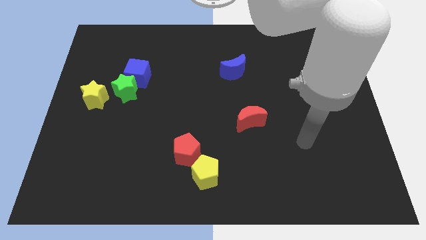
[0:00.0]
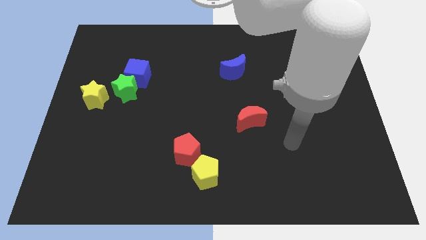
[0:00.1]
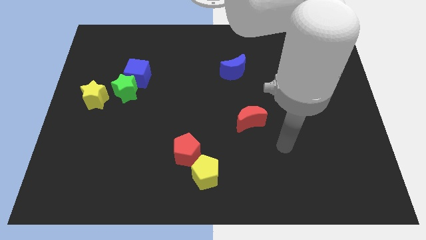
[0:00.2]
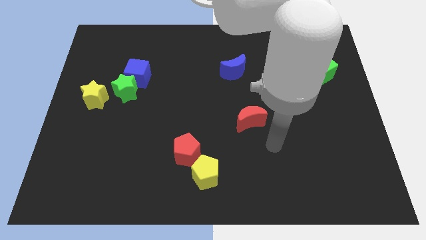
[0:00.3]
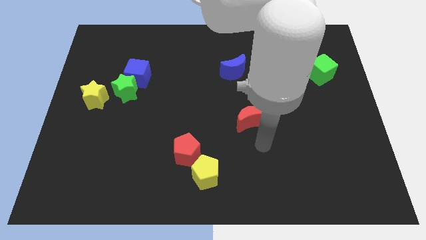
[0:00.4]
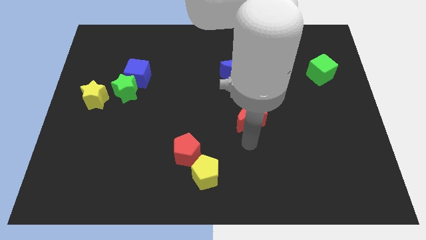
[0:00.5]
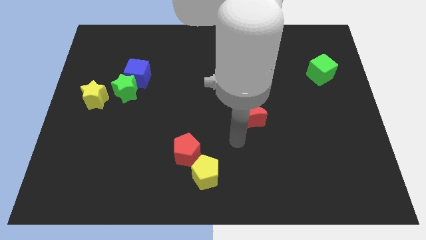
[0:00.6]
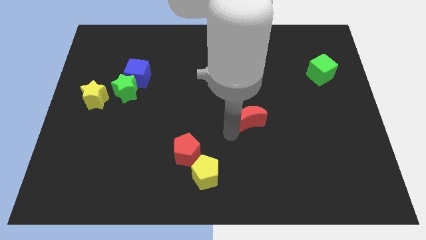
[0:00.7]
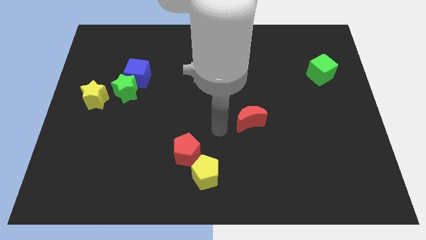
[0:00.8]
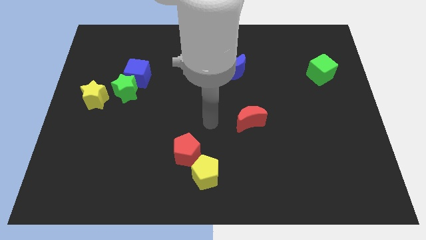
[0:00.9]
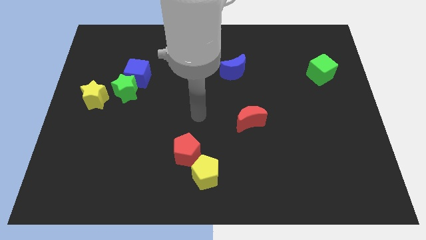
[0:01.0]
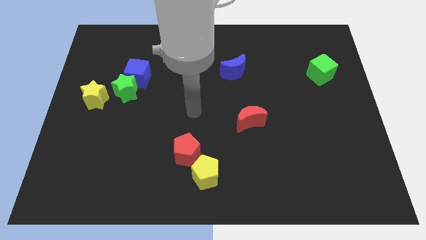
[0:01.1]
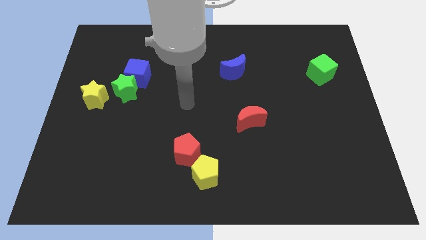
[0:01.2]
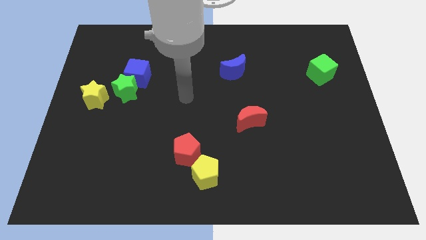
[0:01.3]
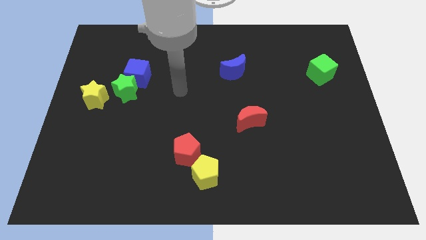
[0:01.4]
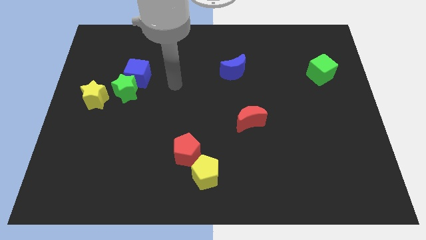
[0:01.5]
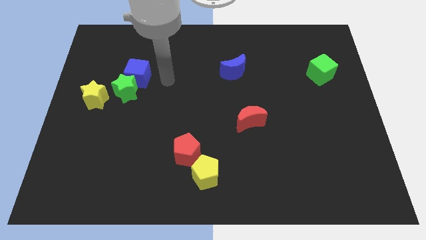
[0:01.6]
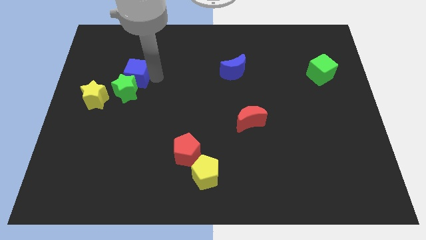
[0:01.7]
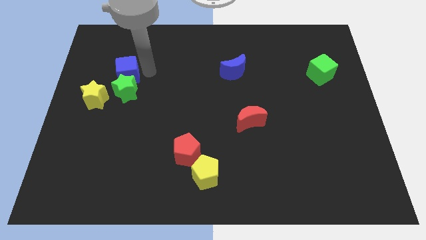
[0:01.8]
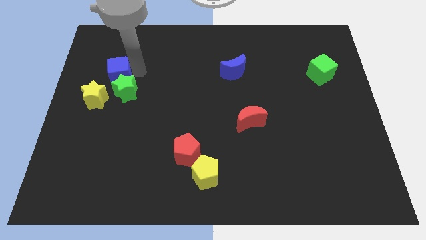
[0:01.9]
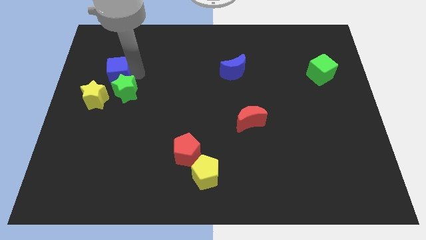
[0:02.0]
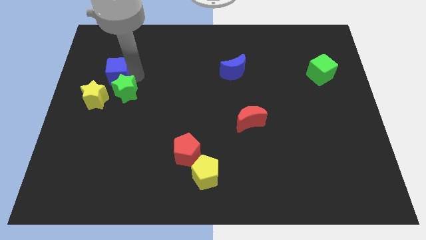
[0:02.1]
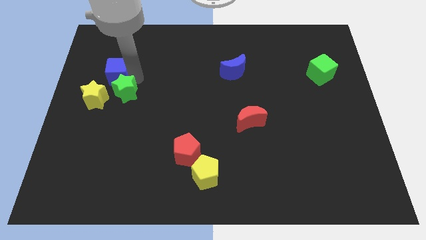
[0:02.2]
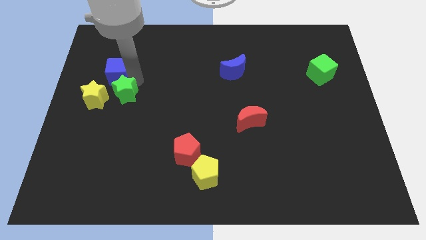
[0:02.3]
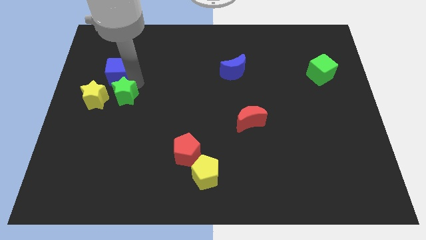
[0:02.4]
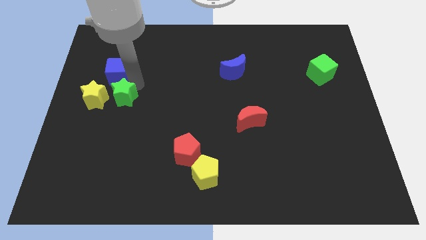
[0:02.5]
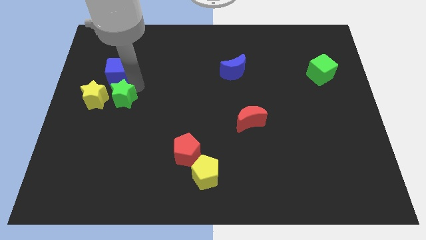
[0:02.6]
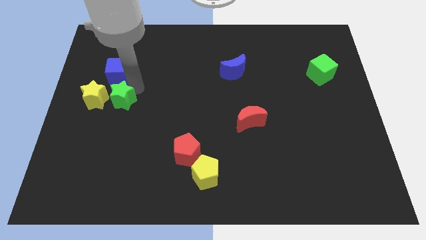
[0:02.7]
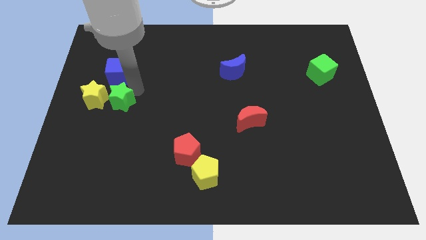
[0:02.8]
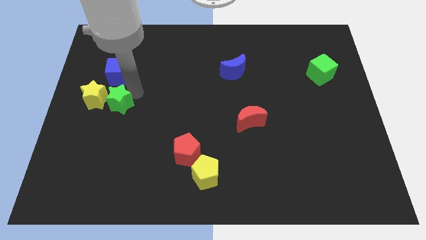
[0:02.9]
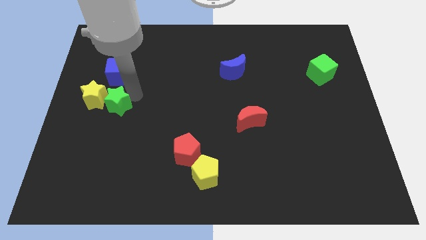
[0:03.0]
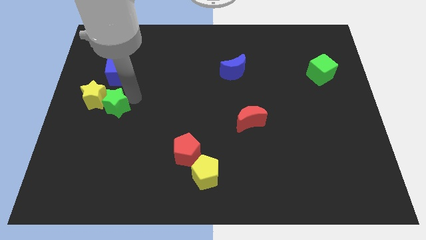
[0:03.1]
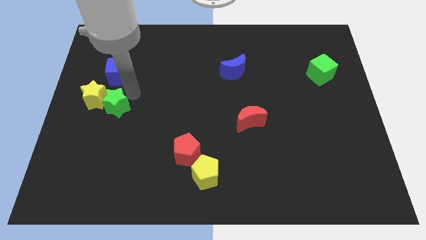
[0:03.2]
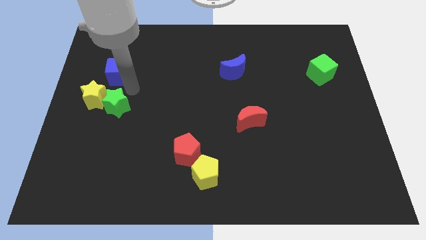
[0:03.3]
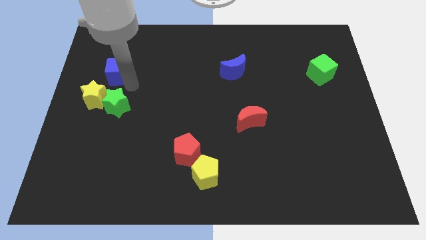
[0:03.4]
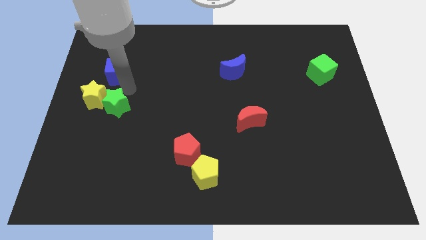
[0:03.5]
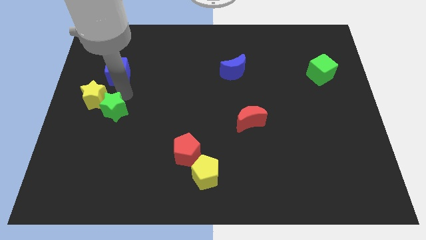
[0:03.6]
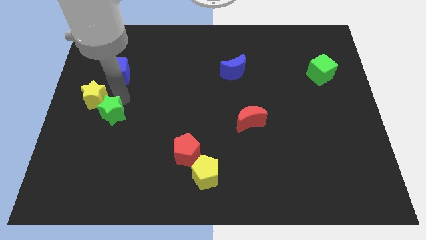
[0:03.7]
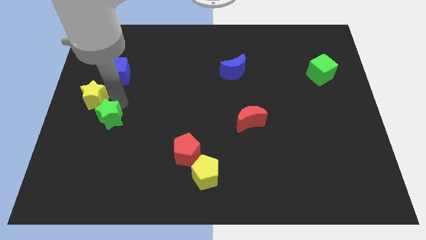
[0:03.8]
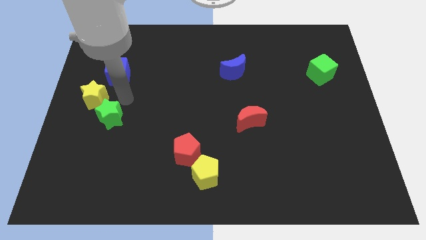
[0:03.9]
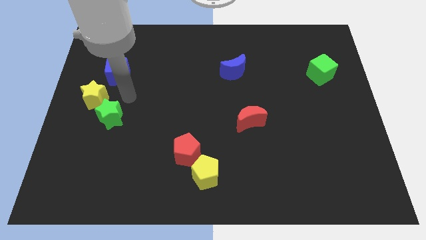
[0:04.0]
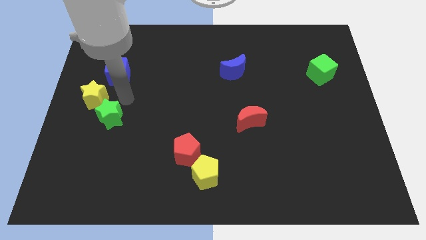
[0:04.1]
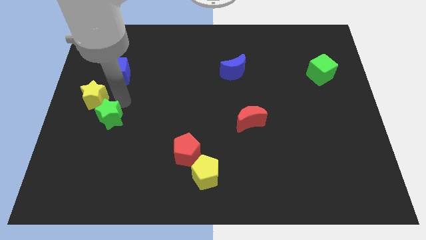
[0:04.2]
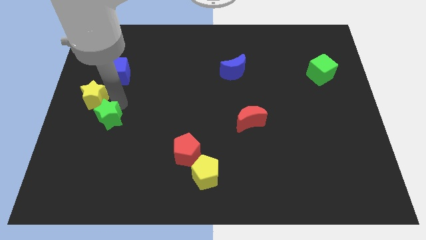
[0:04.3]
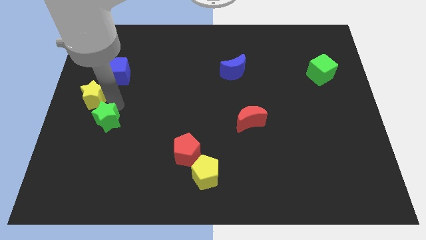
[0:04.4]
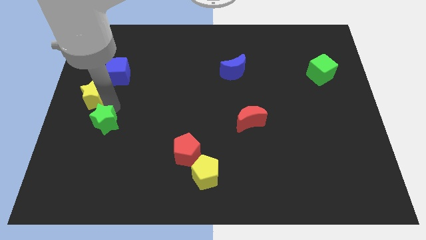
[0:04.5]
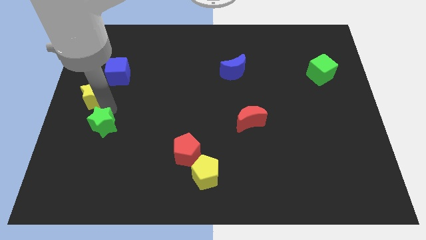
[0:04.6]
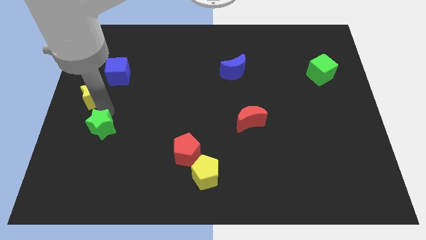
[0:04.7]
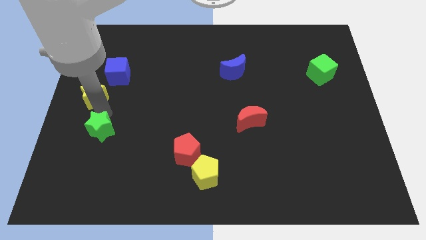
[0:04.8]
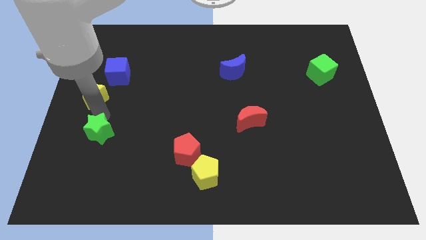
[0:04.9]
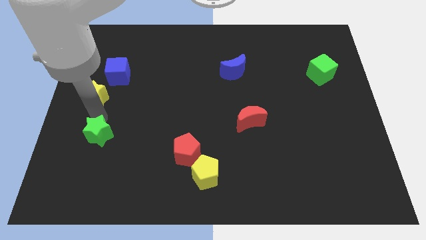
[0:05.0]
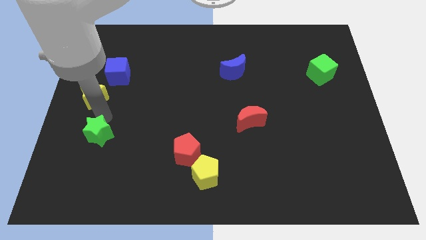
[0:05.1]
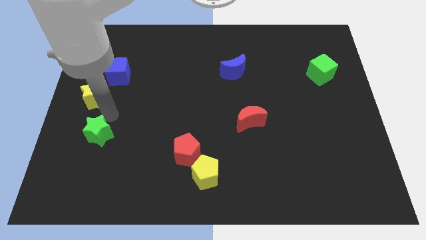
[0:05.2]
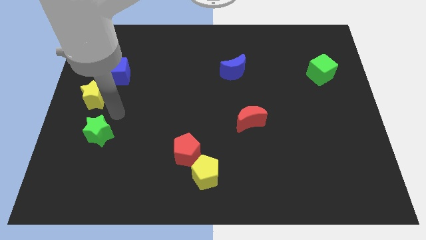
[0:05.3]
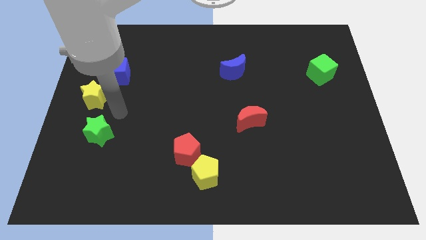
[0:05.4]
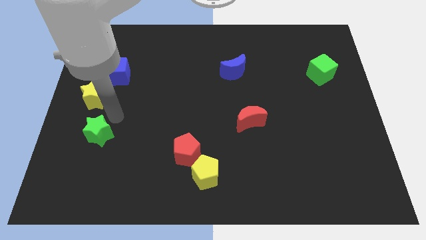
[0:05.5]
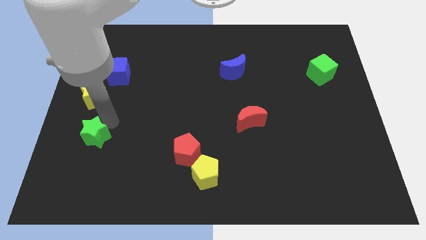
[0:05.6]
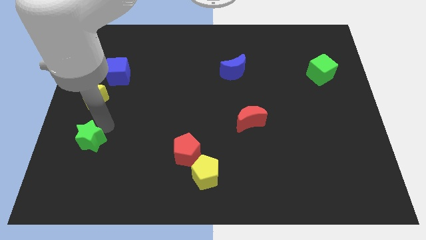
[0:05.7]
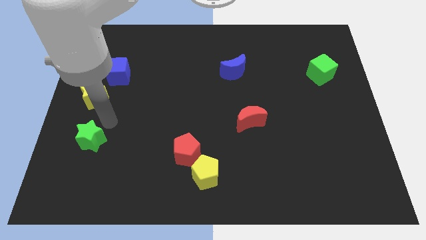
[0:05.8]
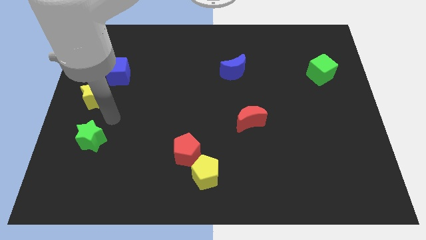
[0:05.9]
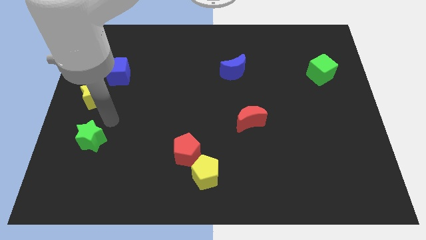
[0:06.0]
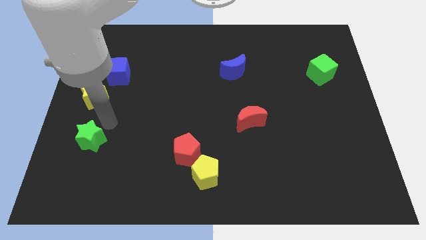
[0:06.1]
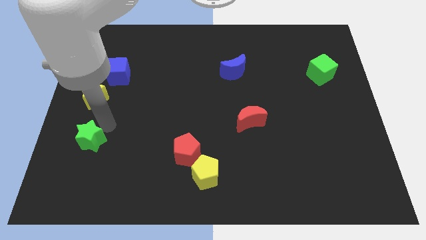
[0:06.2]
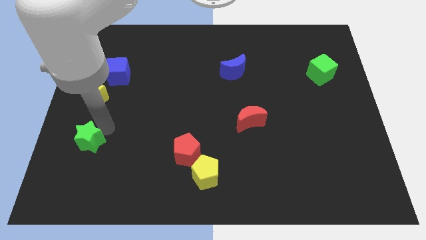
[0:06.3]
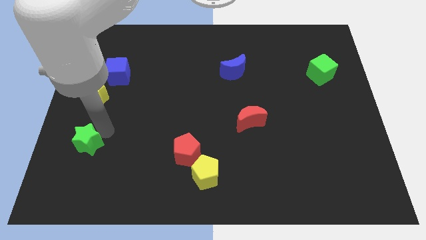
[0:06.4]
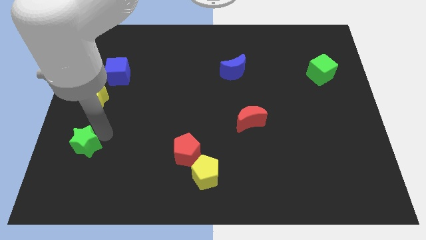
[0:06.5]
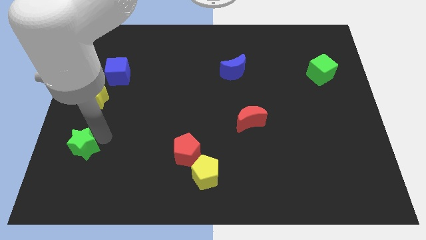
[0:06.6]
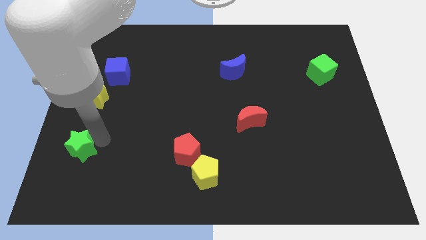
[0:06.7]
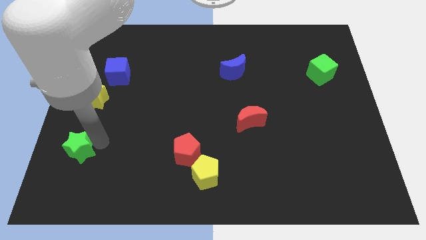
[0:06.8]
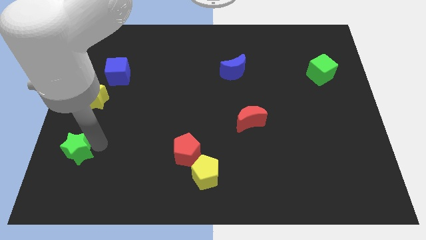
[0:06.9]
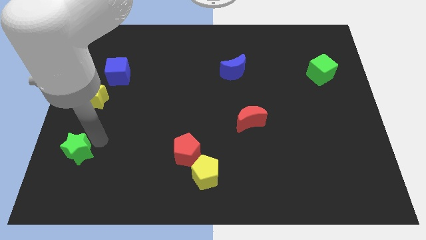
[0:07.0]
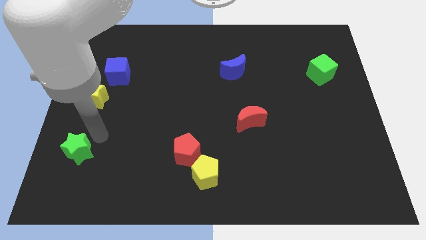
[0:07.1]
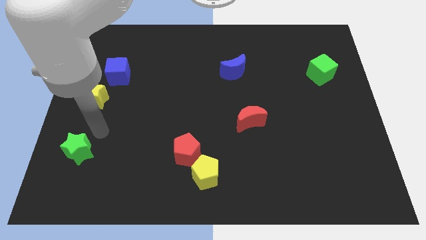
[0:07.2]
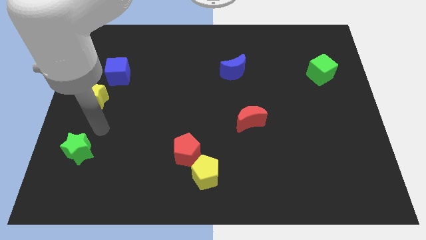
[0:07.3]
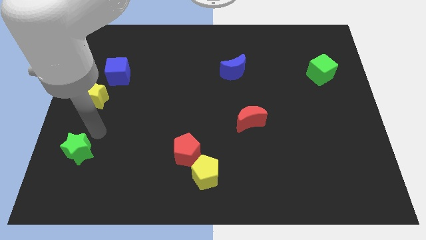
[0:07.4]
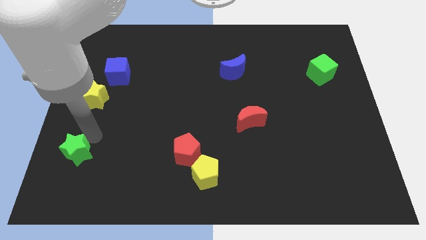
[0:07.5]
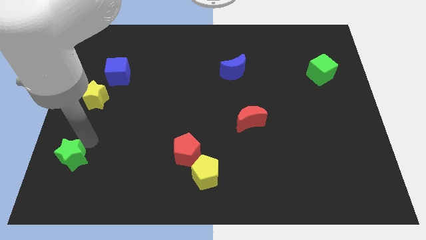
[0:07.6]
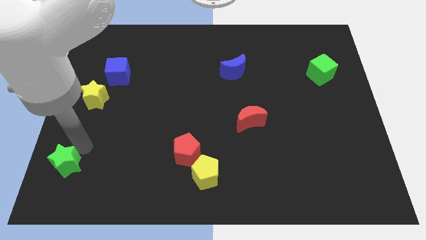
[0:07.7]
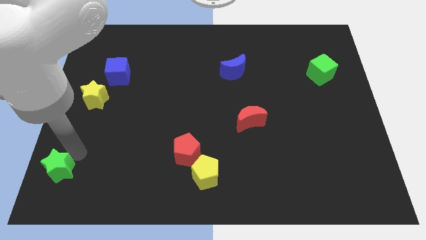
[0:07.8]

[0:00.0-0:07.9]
move the green star to the lower left corner
